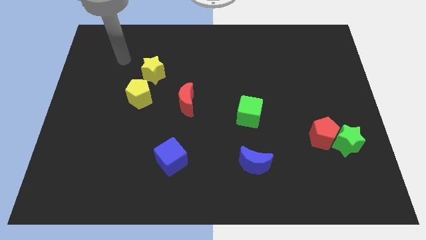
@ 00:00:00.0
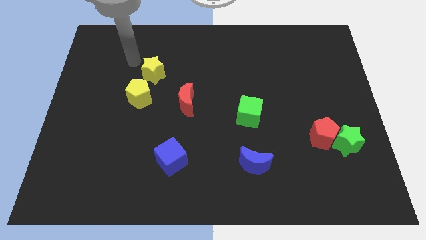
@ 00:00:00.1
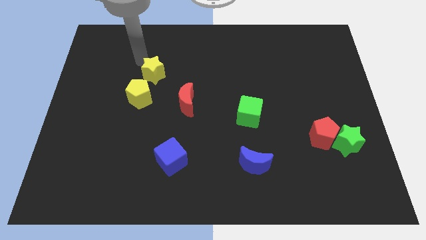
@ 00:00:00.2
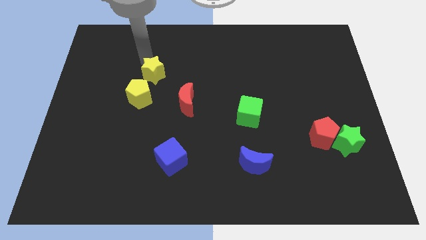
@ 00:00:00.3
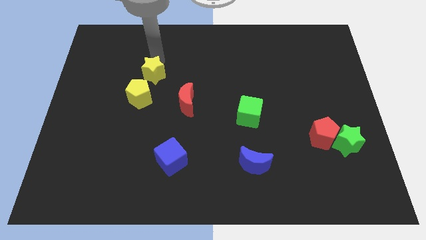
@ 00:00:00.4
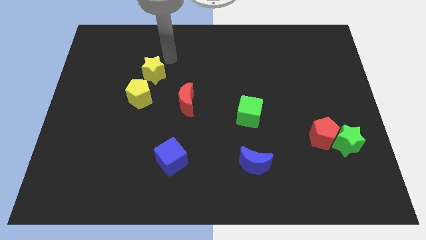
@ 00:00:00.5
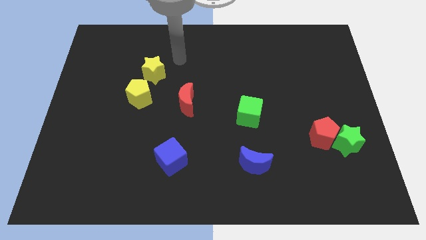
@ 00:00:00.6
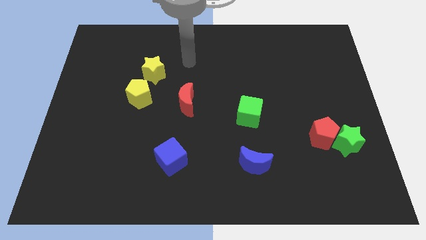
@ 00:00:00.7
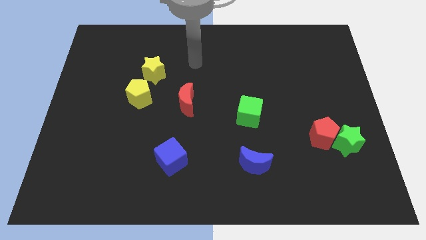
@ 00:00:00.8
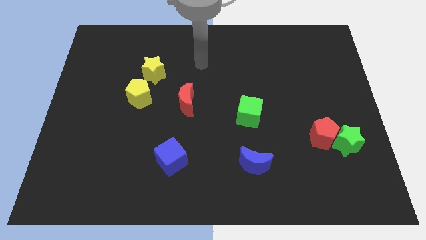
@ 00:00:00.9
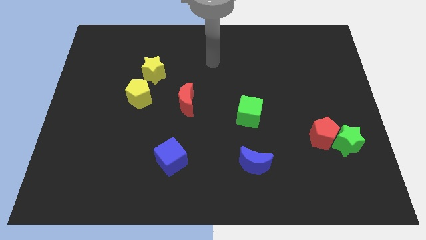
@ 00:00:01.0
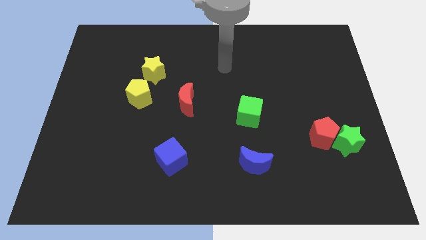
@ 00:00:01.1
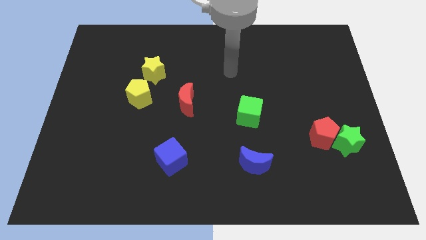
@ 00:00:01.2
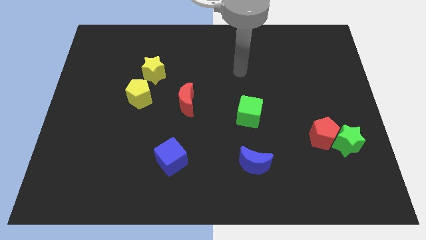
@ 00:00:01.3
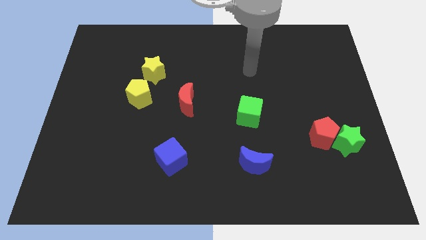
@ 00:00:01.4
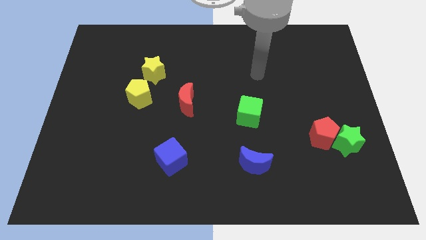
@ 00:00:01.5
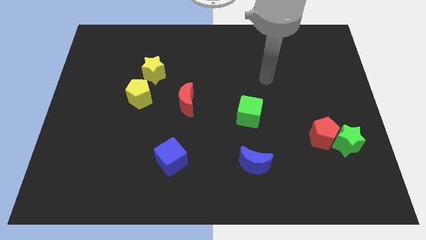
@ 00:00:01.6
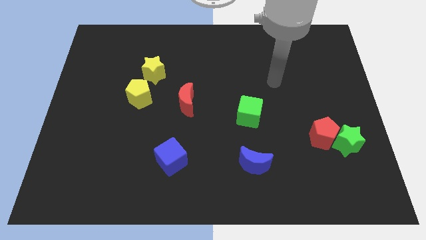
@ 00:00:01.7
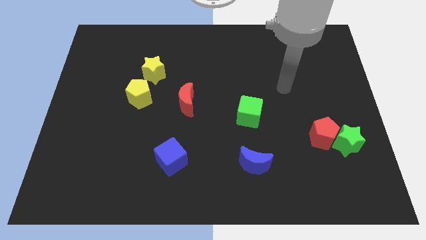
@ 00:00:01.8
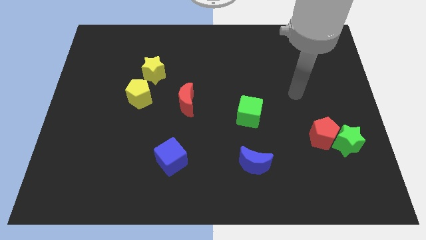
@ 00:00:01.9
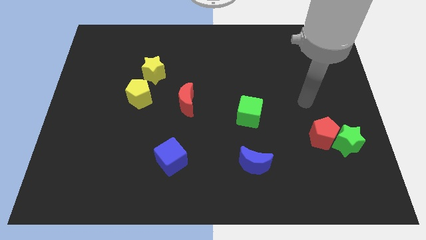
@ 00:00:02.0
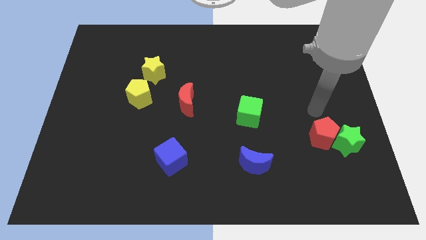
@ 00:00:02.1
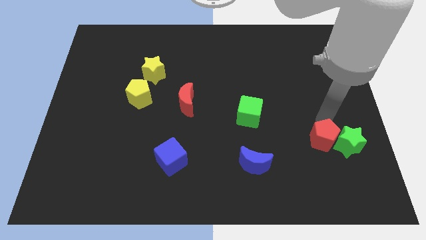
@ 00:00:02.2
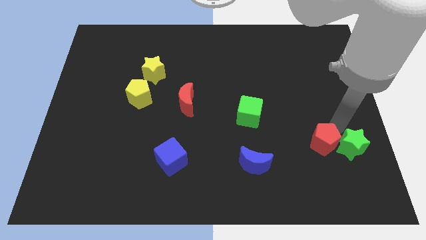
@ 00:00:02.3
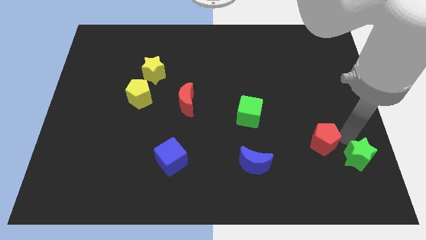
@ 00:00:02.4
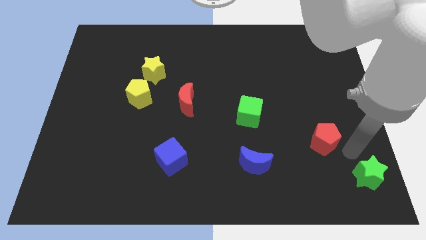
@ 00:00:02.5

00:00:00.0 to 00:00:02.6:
move the red pentagon away from the green star

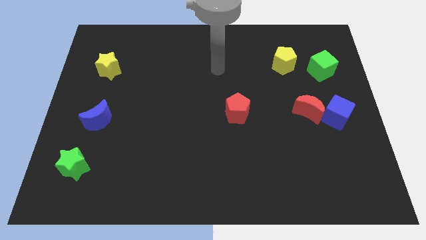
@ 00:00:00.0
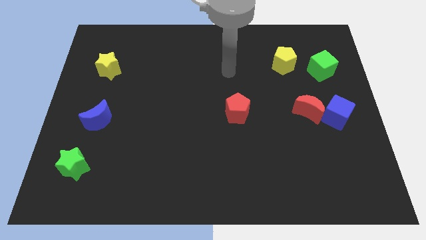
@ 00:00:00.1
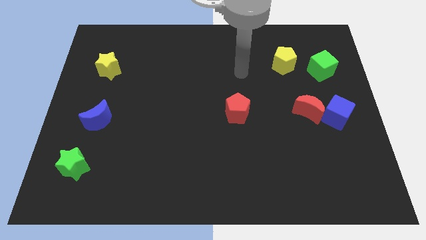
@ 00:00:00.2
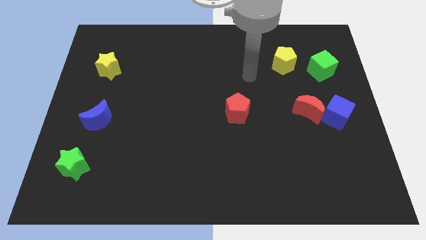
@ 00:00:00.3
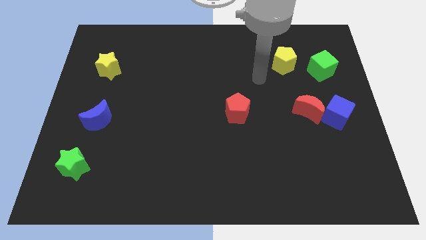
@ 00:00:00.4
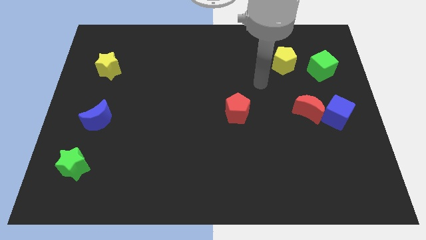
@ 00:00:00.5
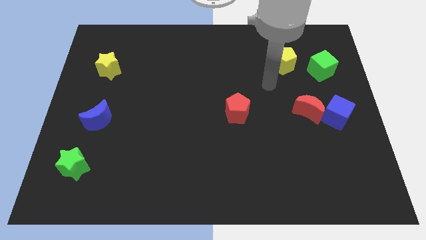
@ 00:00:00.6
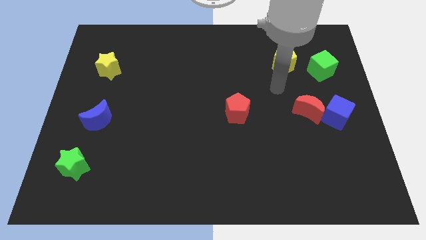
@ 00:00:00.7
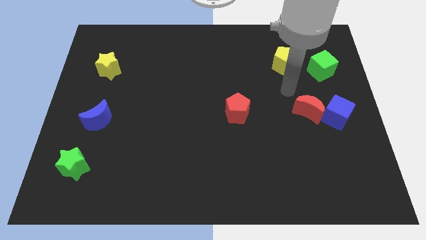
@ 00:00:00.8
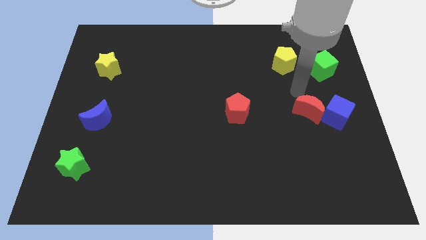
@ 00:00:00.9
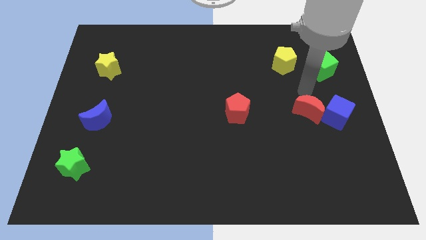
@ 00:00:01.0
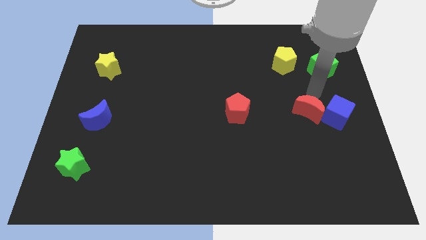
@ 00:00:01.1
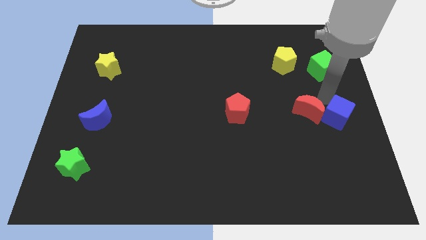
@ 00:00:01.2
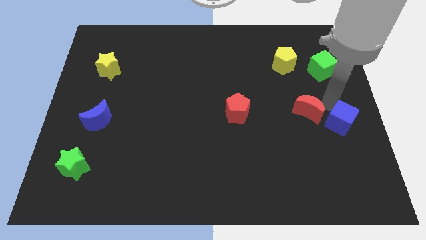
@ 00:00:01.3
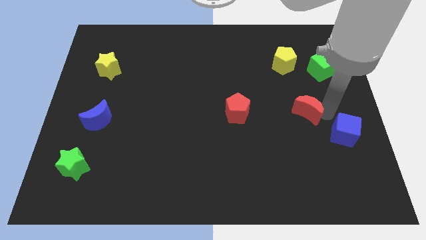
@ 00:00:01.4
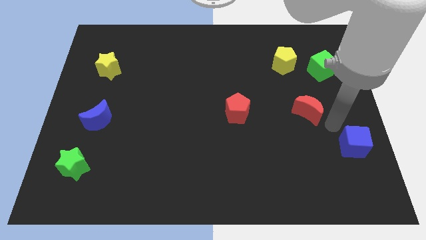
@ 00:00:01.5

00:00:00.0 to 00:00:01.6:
separate the red moon from the blue cube

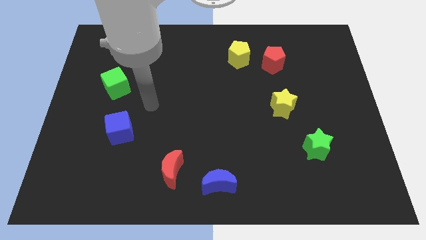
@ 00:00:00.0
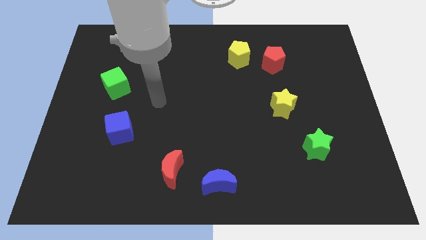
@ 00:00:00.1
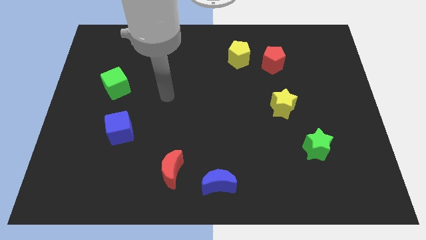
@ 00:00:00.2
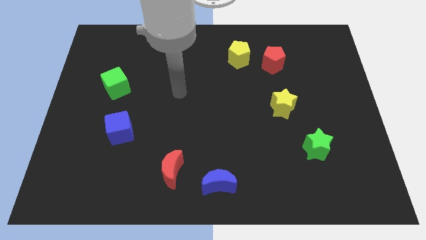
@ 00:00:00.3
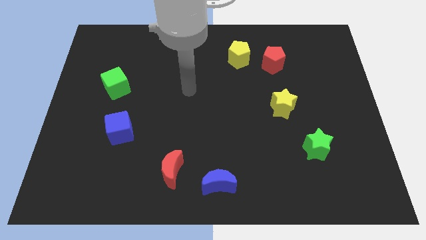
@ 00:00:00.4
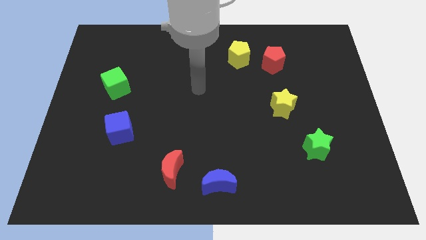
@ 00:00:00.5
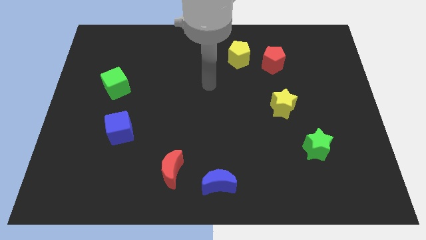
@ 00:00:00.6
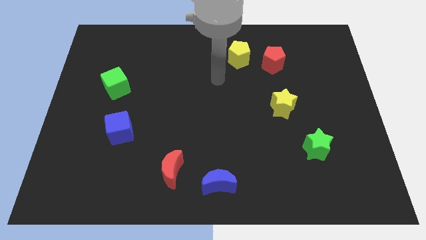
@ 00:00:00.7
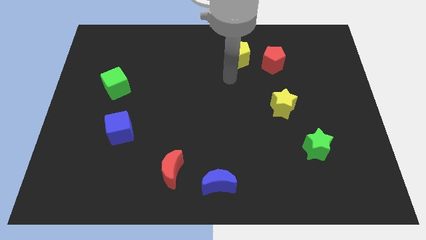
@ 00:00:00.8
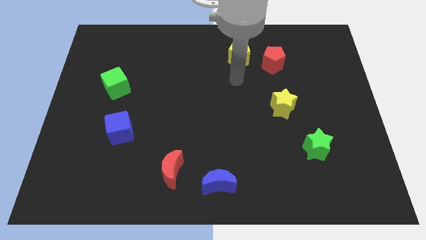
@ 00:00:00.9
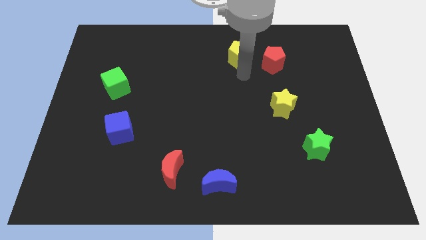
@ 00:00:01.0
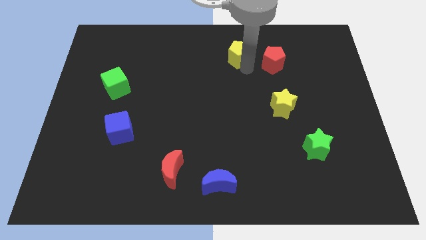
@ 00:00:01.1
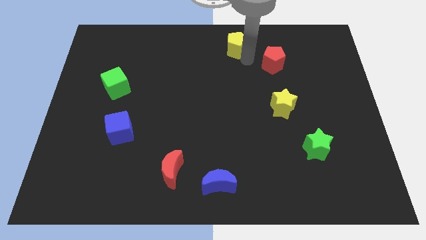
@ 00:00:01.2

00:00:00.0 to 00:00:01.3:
separate the red pentagon from the yellow pentagon

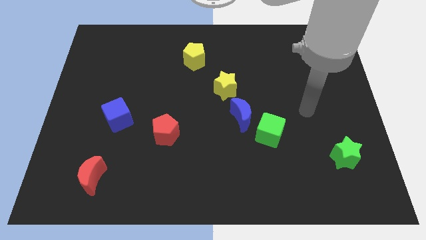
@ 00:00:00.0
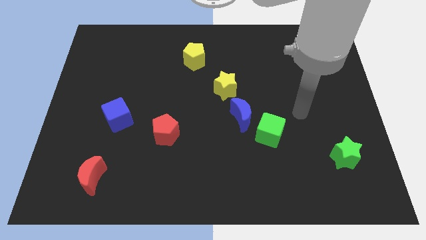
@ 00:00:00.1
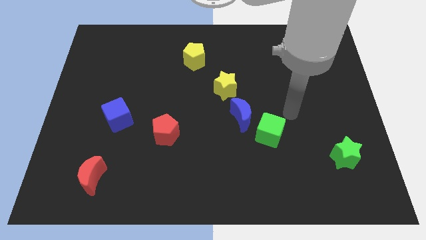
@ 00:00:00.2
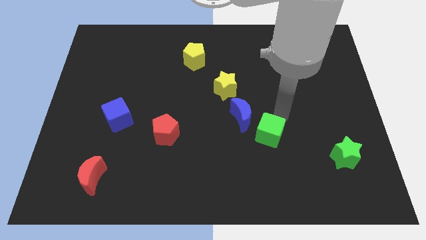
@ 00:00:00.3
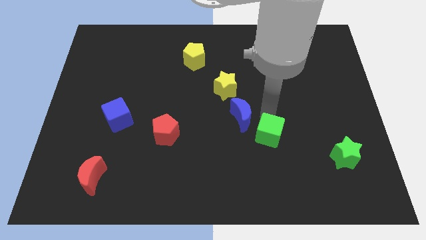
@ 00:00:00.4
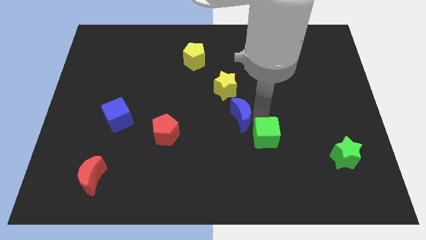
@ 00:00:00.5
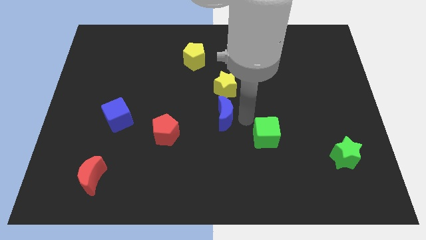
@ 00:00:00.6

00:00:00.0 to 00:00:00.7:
separate the green cube from the blue moon

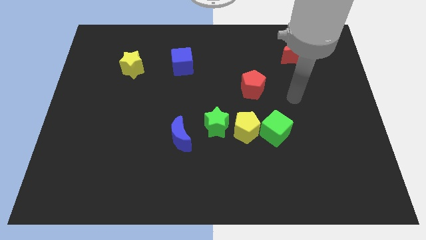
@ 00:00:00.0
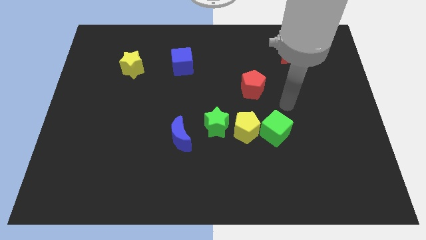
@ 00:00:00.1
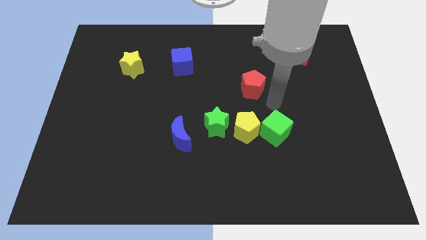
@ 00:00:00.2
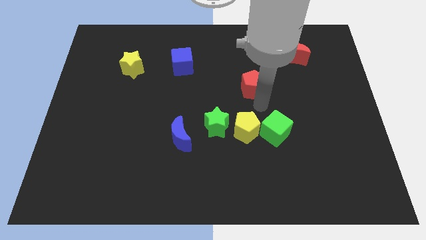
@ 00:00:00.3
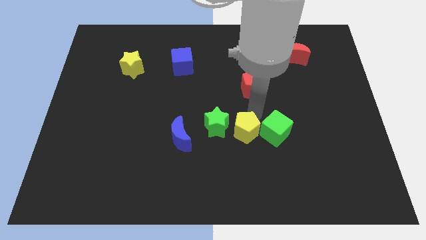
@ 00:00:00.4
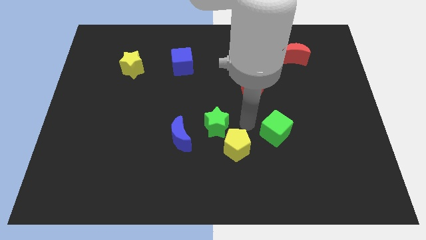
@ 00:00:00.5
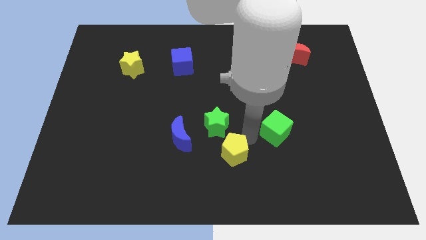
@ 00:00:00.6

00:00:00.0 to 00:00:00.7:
separate the green cube from the yellow pentagon

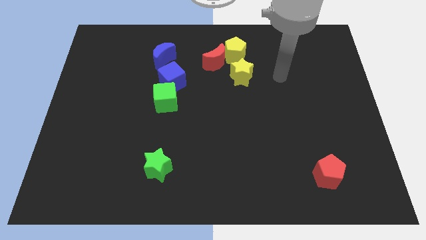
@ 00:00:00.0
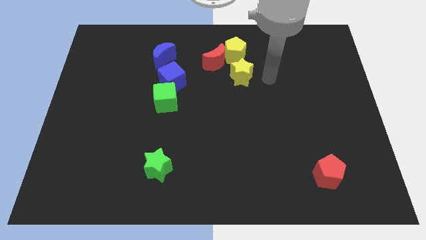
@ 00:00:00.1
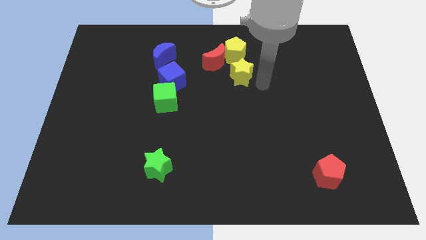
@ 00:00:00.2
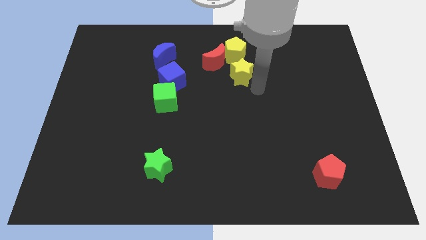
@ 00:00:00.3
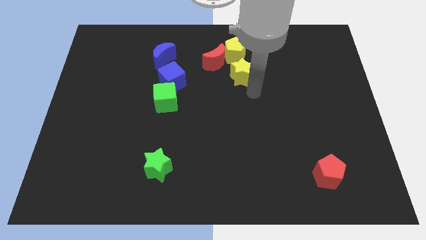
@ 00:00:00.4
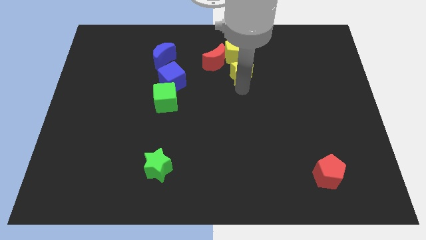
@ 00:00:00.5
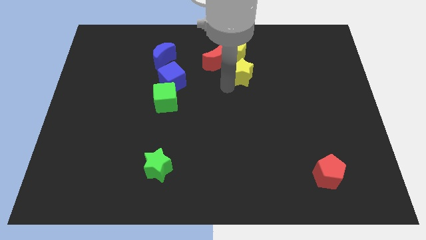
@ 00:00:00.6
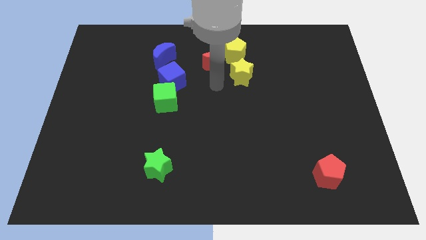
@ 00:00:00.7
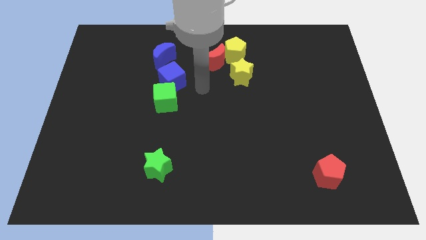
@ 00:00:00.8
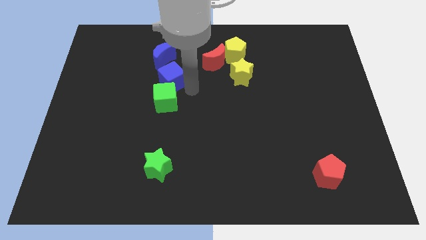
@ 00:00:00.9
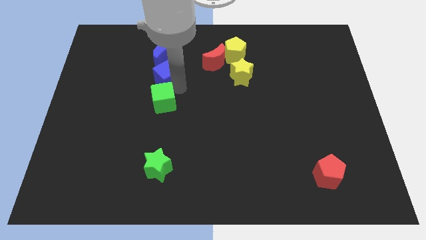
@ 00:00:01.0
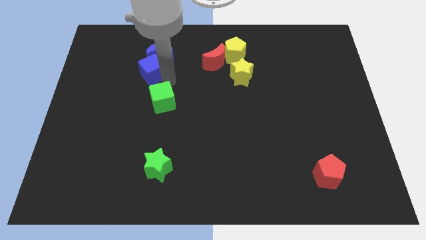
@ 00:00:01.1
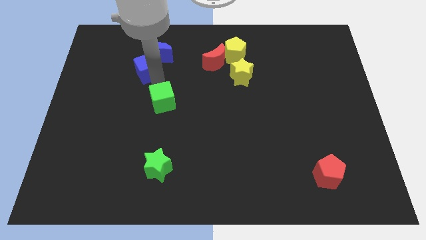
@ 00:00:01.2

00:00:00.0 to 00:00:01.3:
pull the green cube apart from the blue cube

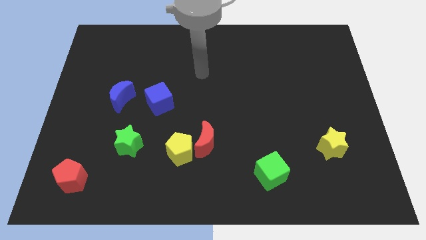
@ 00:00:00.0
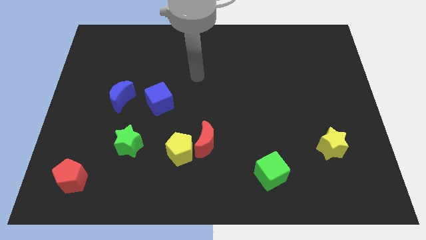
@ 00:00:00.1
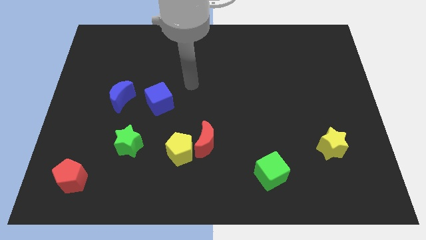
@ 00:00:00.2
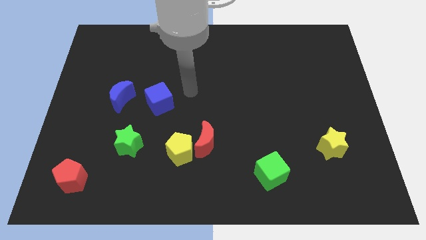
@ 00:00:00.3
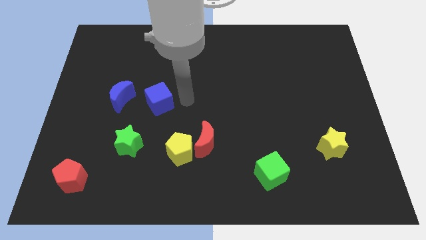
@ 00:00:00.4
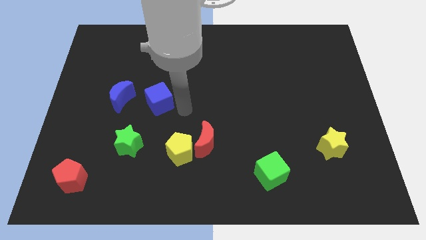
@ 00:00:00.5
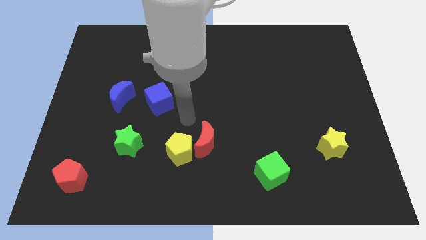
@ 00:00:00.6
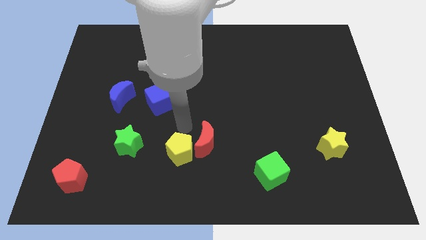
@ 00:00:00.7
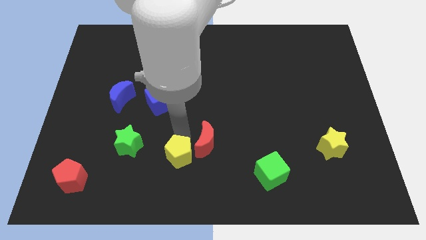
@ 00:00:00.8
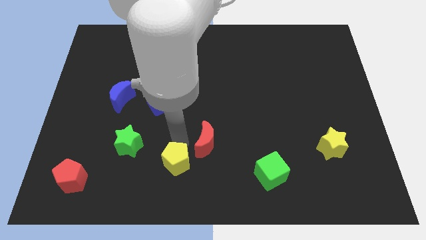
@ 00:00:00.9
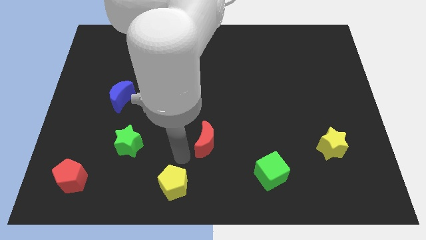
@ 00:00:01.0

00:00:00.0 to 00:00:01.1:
separate the red moon from the yellow pentagon
